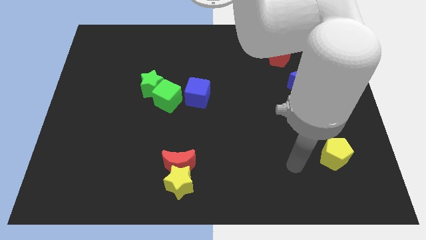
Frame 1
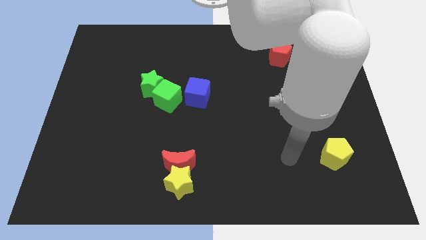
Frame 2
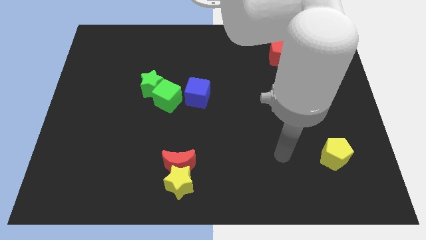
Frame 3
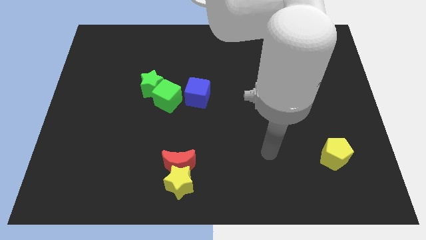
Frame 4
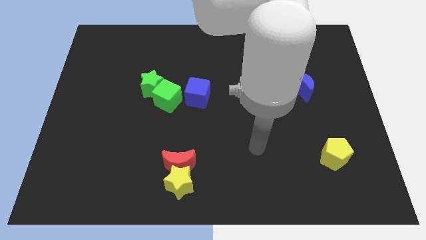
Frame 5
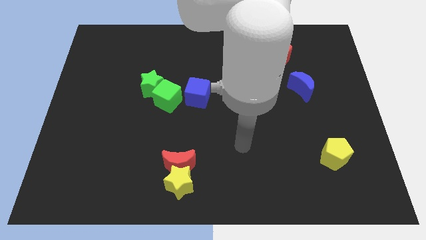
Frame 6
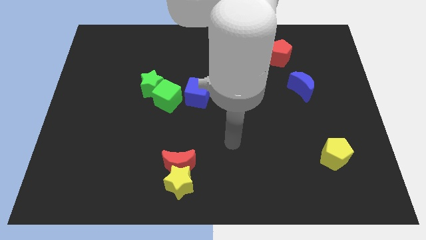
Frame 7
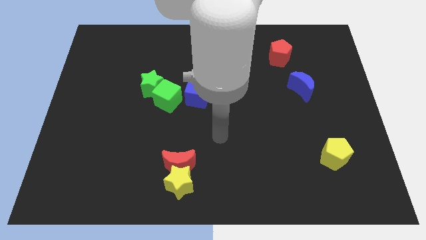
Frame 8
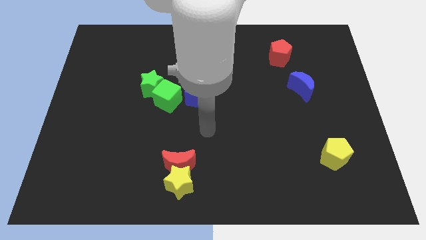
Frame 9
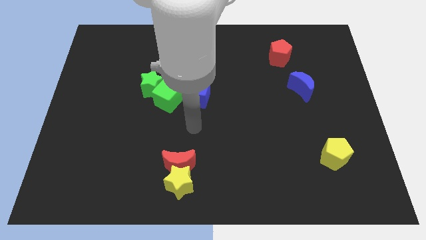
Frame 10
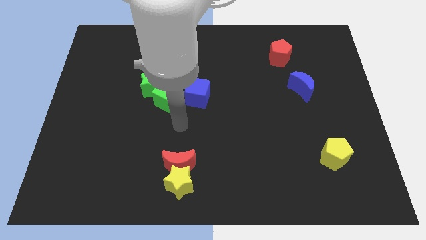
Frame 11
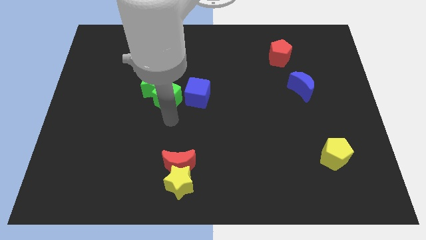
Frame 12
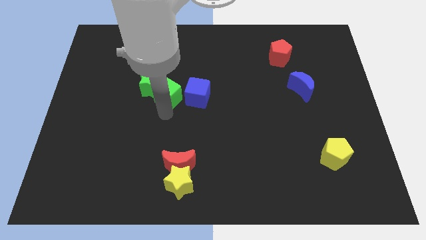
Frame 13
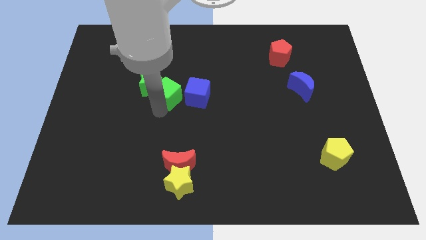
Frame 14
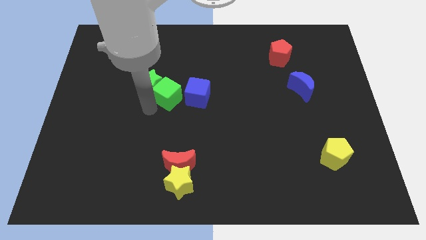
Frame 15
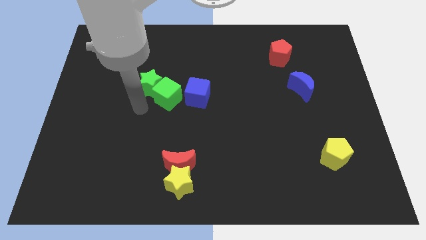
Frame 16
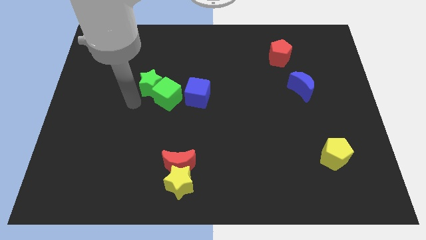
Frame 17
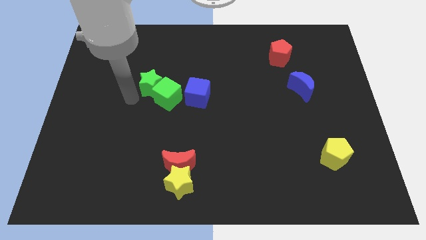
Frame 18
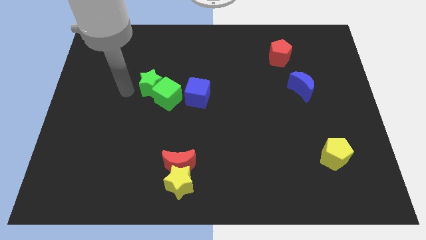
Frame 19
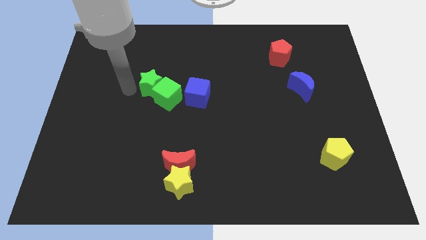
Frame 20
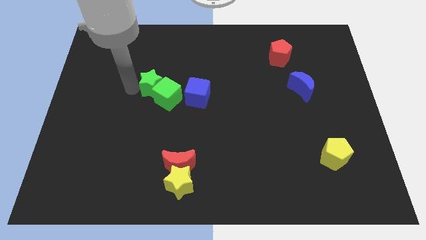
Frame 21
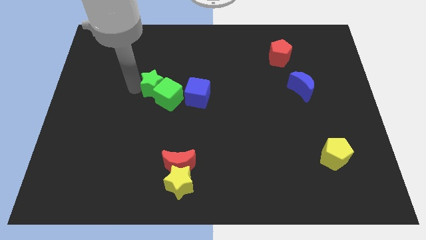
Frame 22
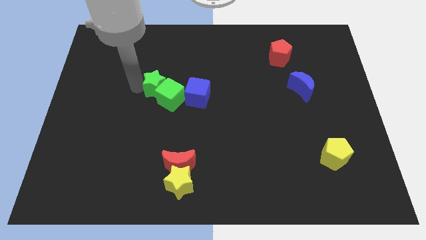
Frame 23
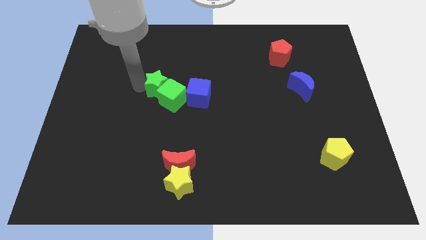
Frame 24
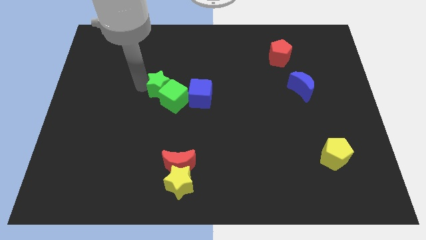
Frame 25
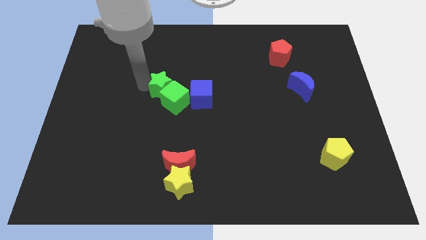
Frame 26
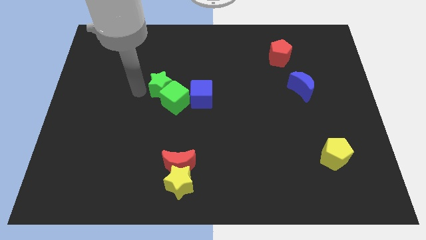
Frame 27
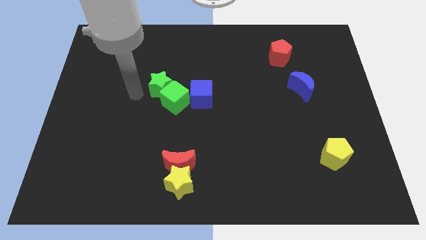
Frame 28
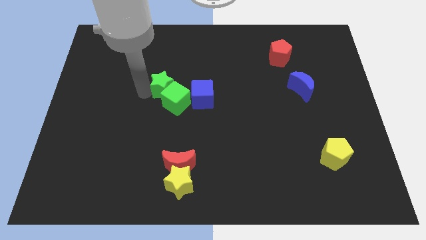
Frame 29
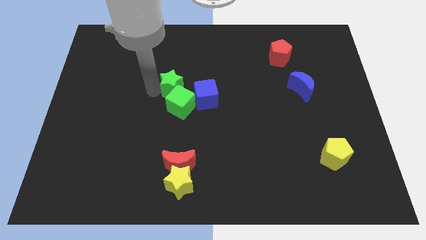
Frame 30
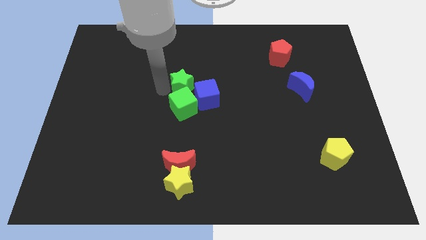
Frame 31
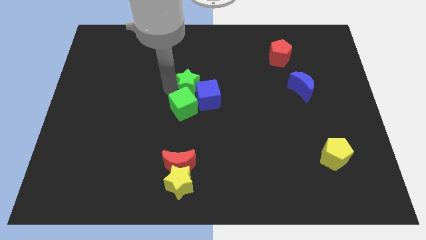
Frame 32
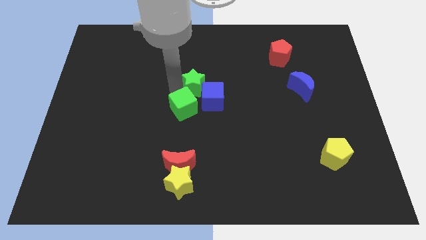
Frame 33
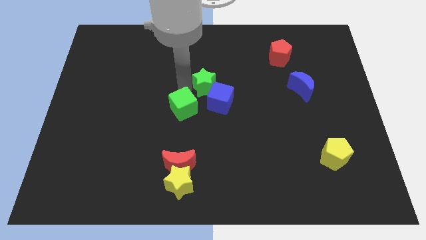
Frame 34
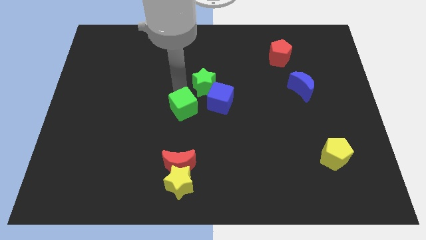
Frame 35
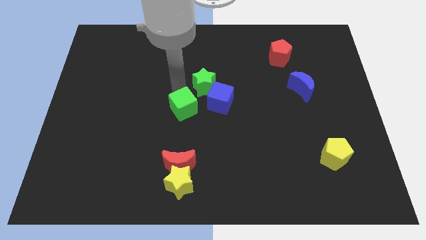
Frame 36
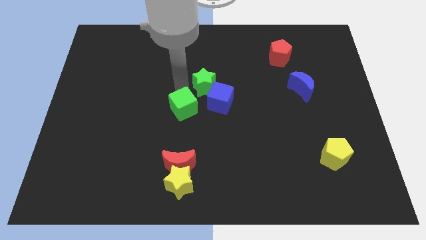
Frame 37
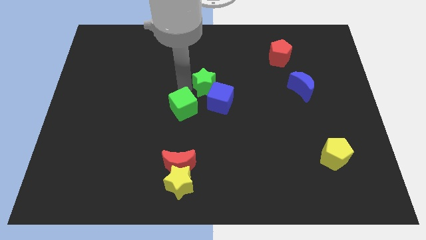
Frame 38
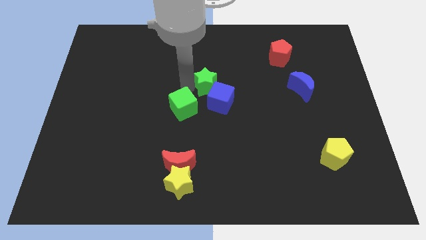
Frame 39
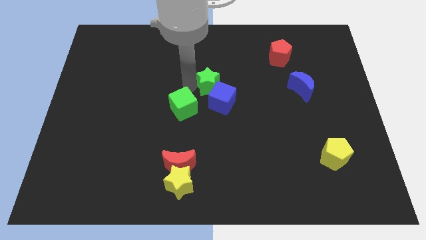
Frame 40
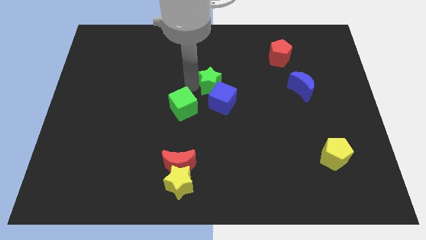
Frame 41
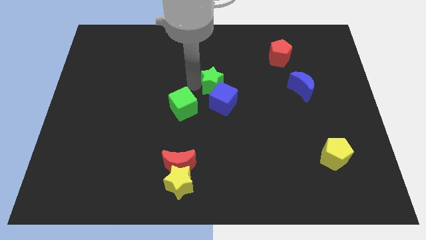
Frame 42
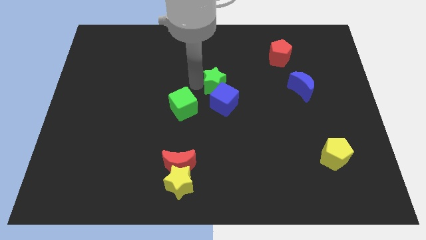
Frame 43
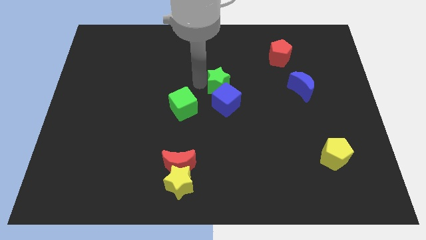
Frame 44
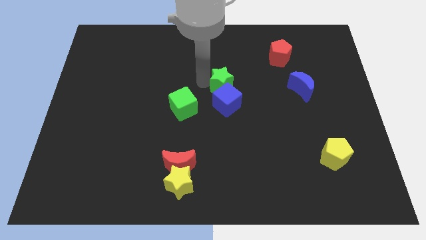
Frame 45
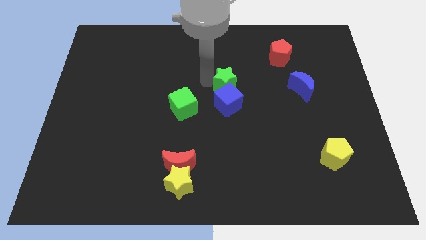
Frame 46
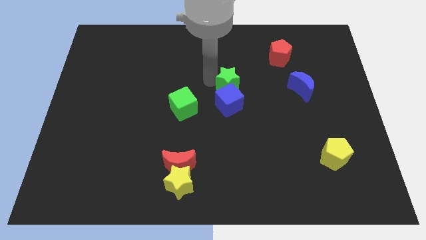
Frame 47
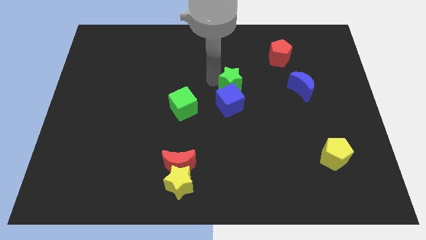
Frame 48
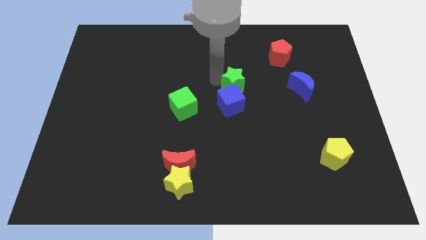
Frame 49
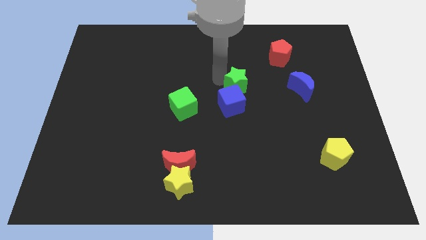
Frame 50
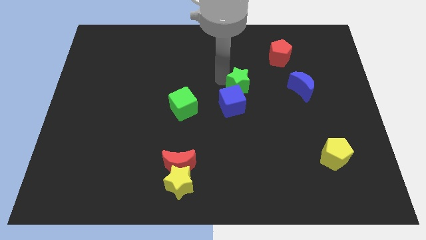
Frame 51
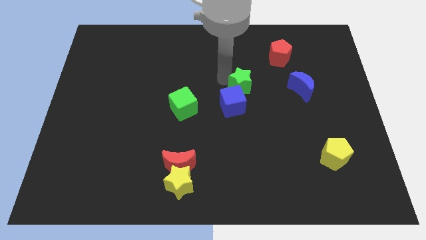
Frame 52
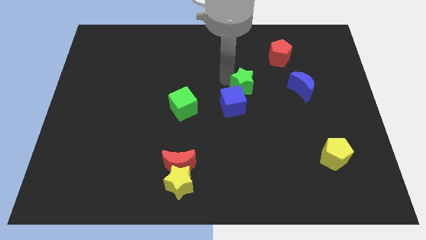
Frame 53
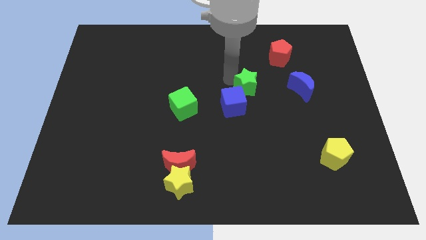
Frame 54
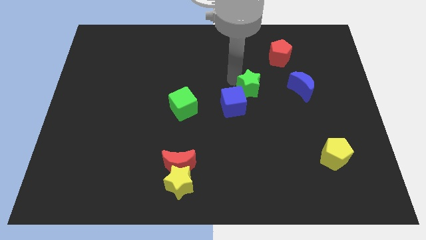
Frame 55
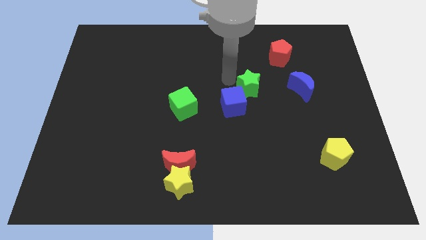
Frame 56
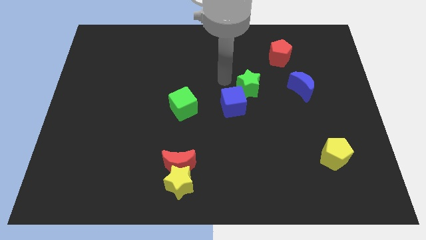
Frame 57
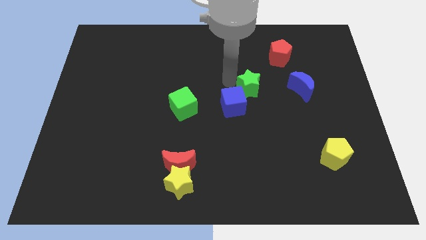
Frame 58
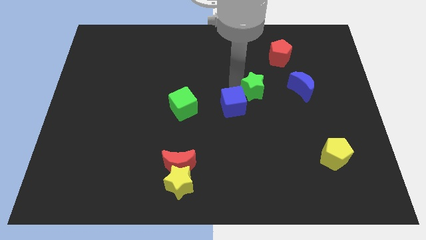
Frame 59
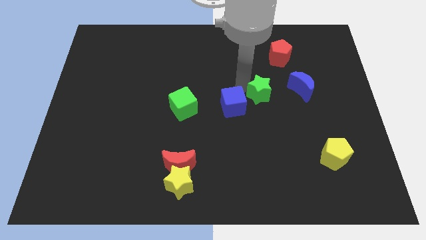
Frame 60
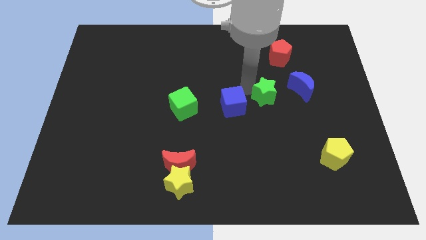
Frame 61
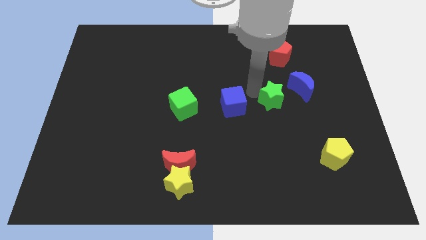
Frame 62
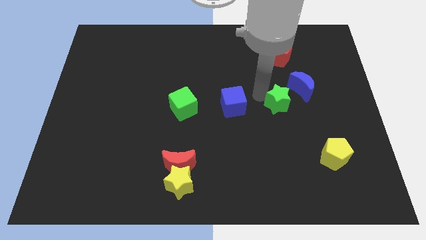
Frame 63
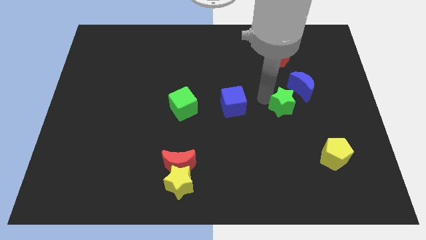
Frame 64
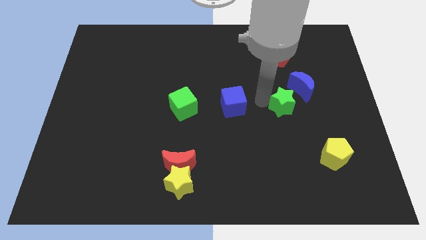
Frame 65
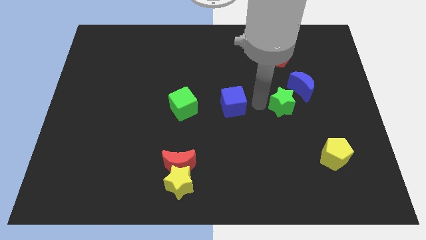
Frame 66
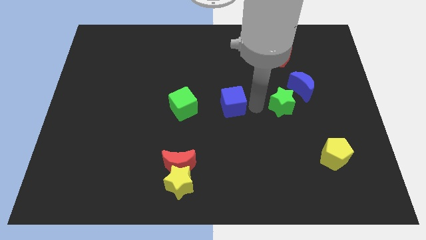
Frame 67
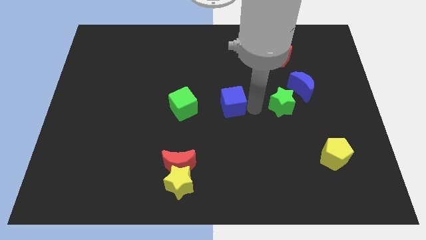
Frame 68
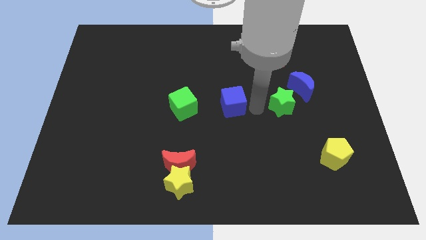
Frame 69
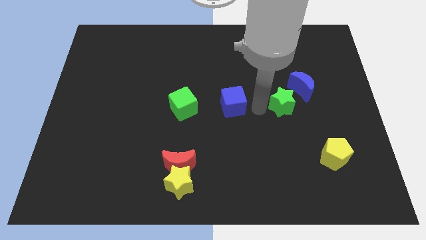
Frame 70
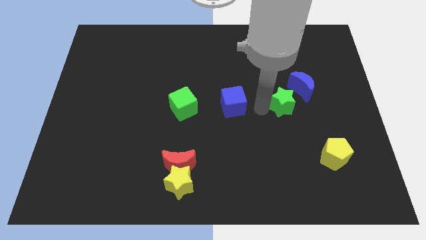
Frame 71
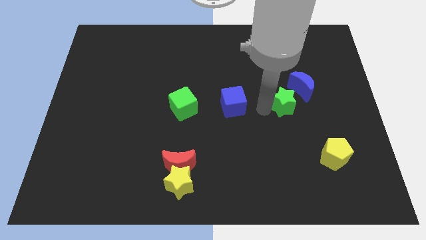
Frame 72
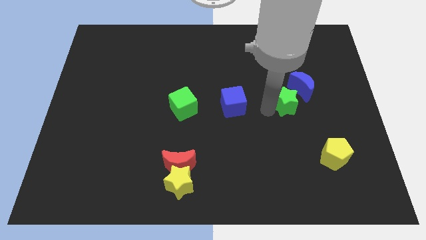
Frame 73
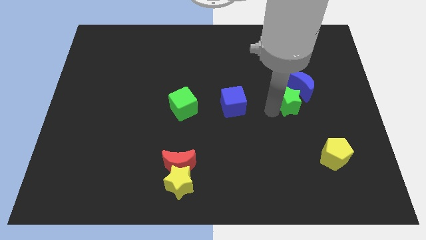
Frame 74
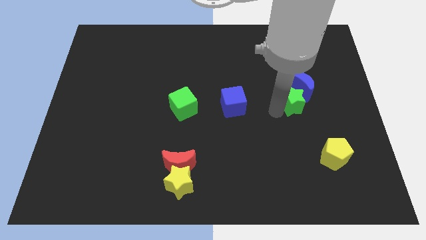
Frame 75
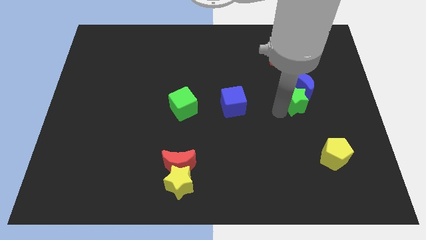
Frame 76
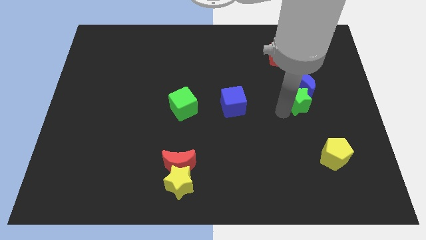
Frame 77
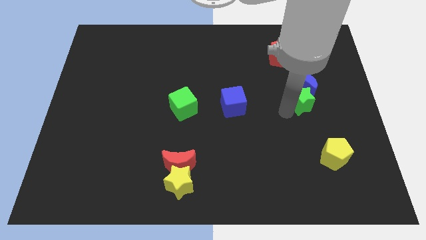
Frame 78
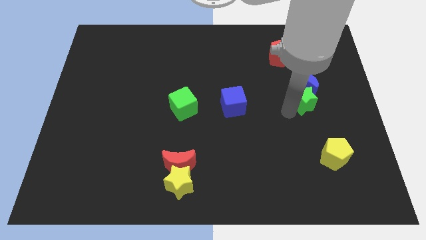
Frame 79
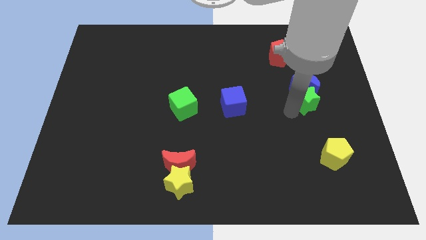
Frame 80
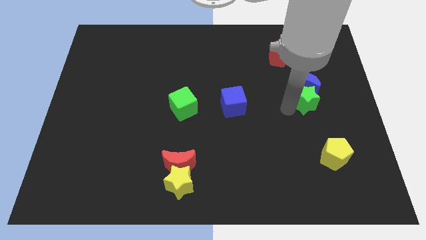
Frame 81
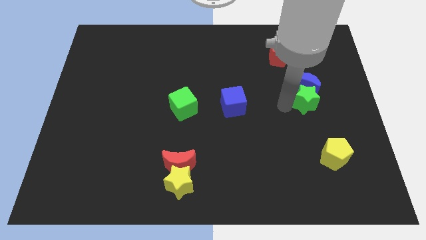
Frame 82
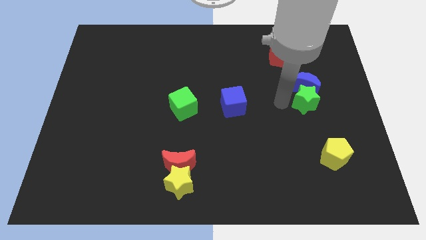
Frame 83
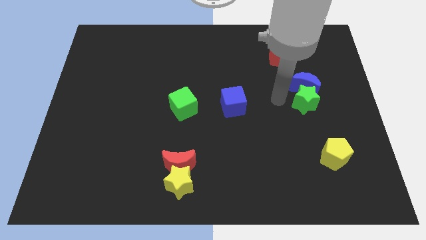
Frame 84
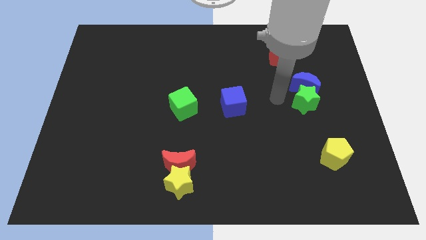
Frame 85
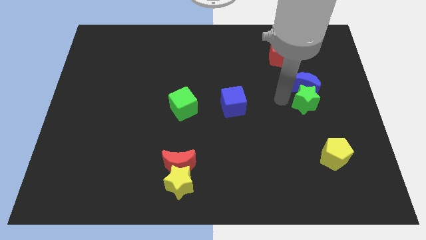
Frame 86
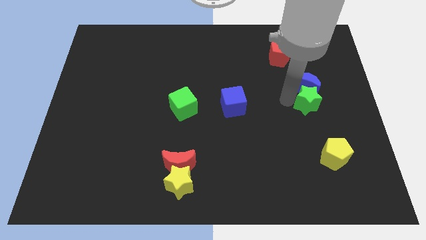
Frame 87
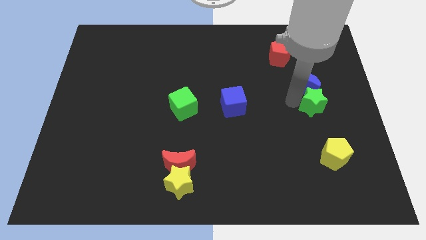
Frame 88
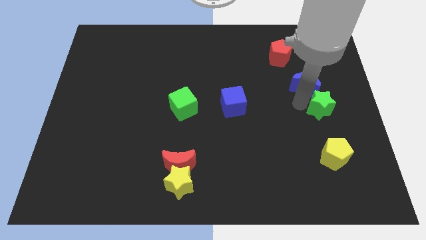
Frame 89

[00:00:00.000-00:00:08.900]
slide the green star to the right side
